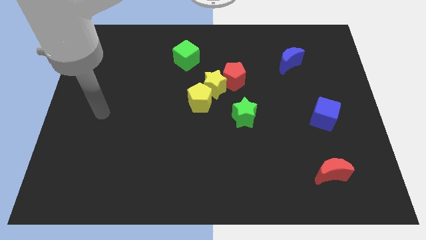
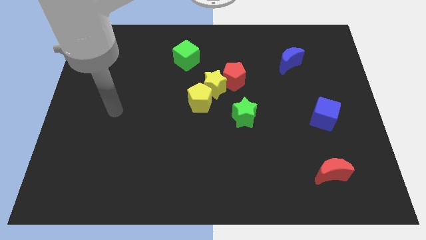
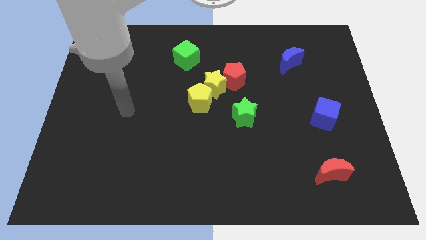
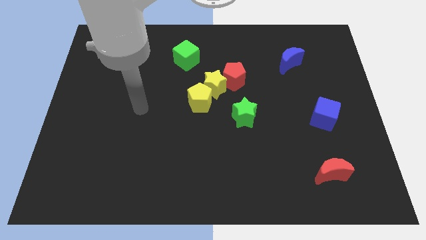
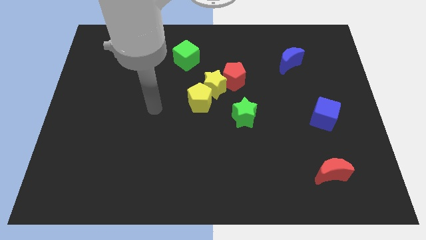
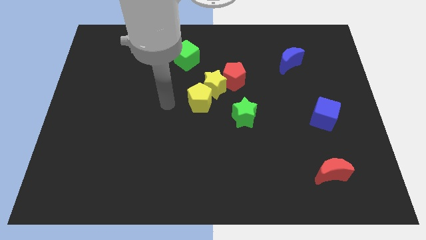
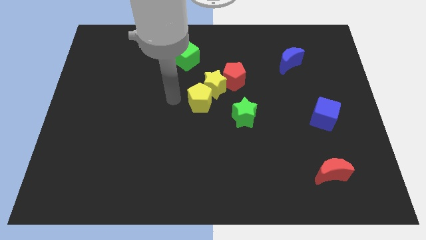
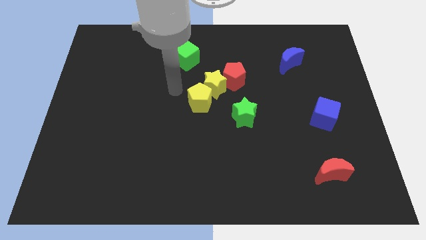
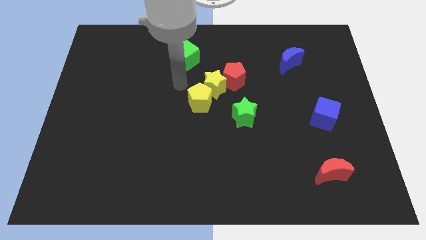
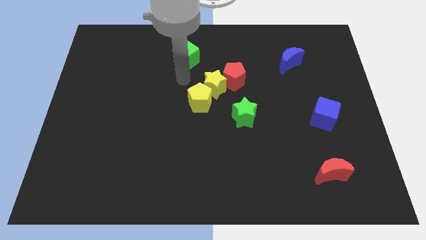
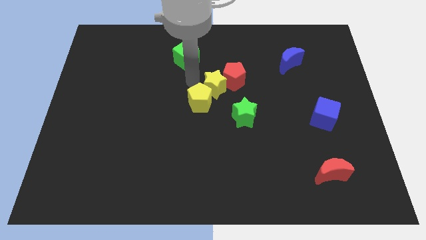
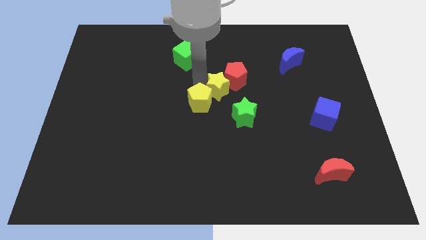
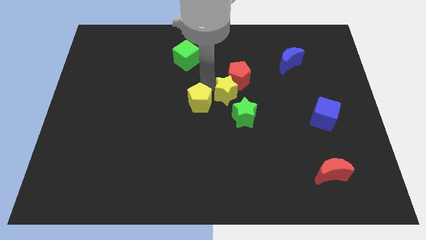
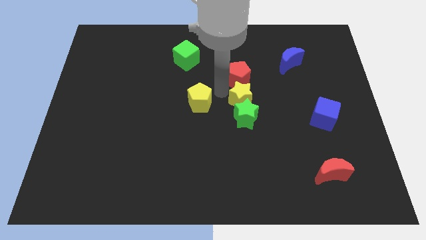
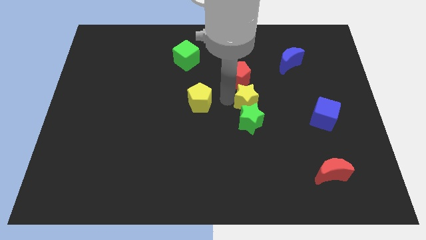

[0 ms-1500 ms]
pull the yellow pentagon apart from the yellow star

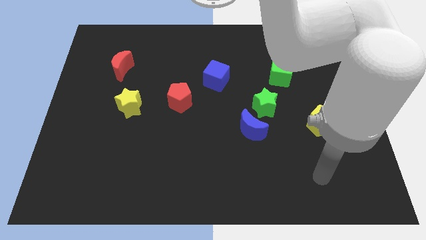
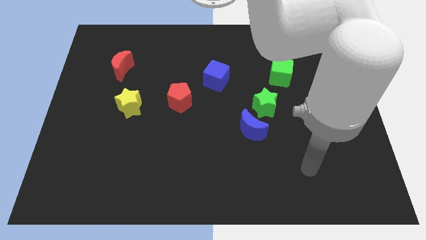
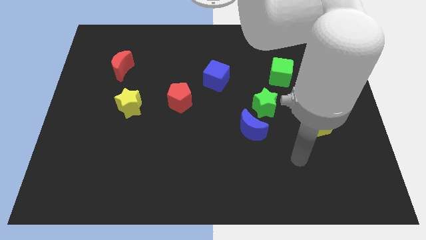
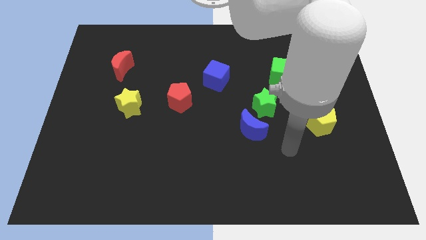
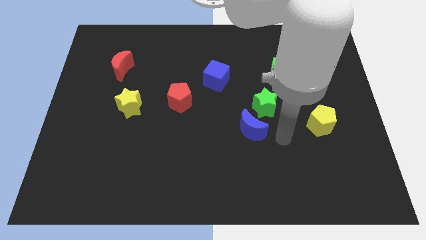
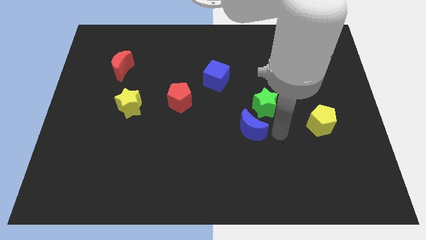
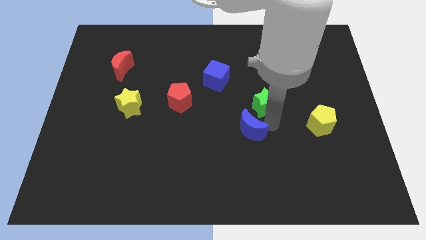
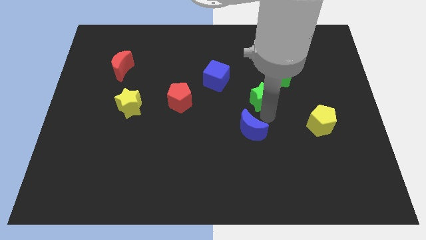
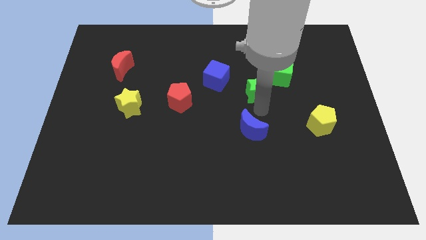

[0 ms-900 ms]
move the blue moon away from the green star

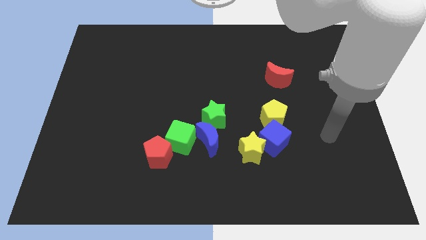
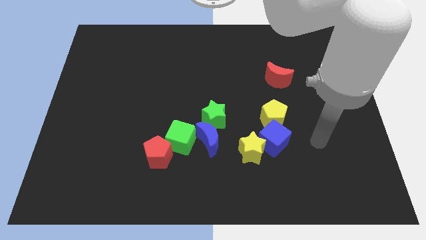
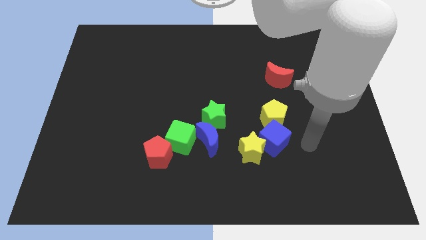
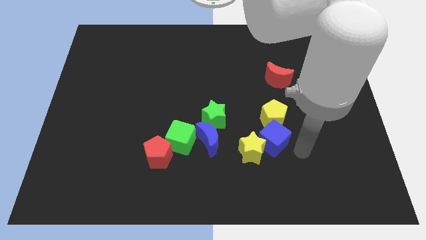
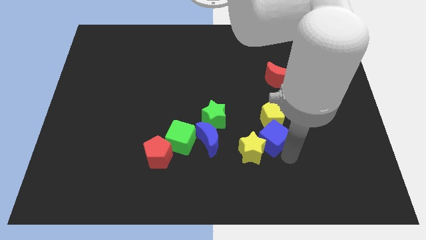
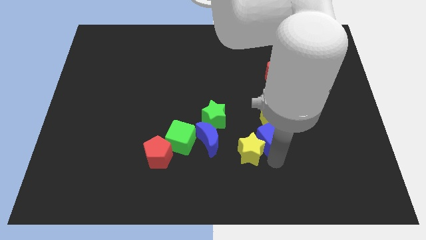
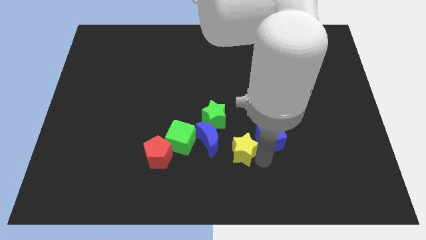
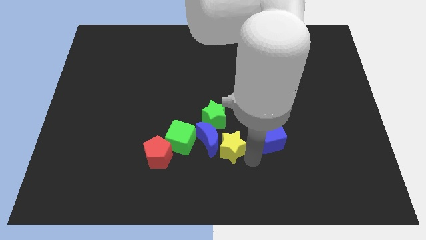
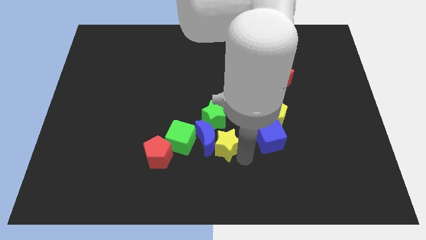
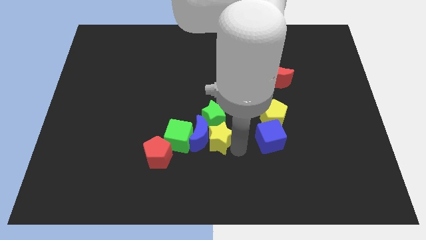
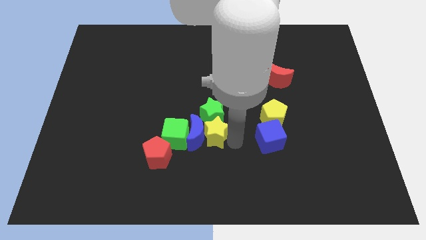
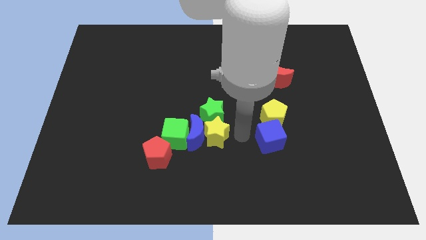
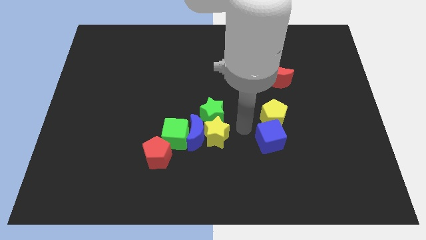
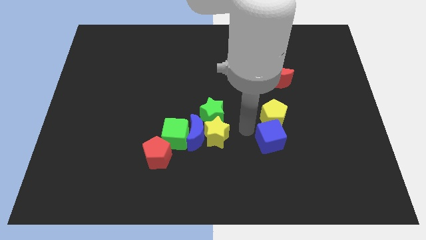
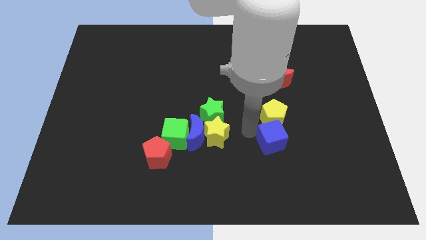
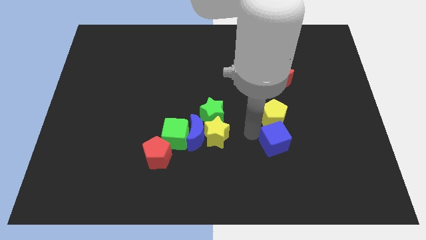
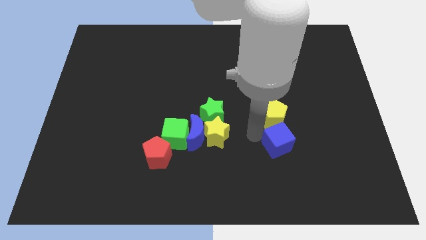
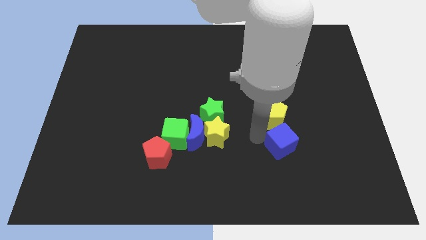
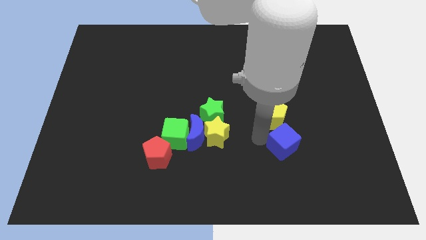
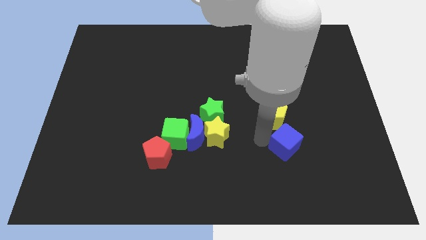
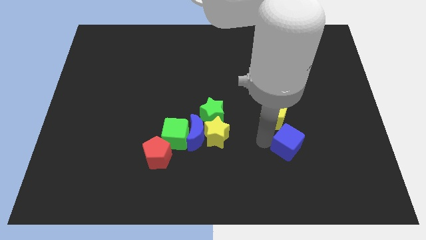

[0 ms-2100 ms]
move the blue cube away from the yellow star and yellow pentagon

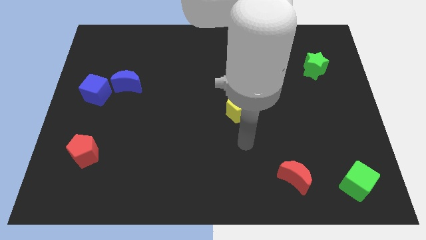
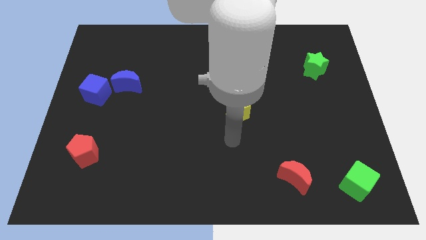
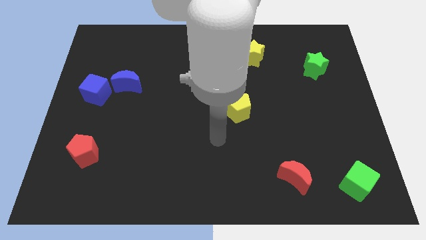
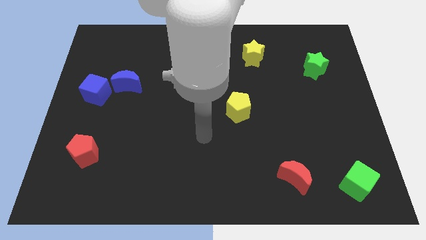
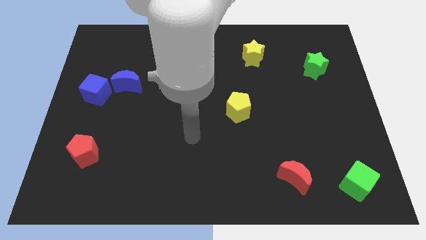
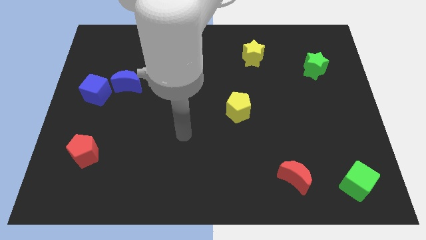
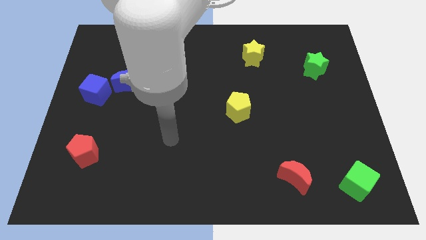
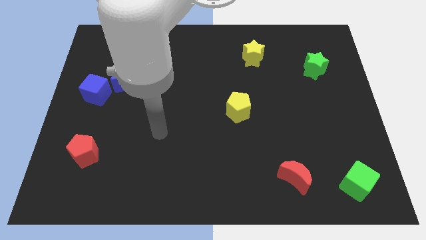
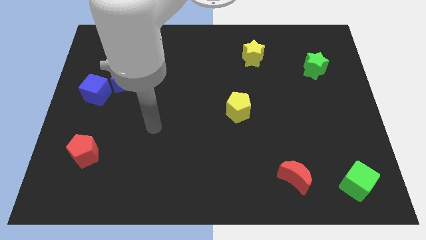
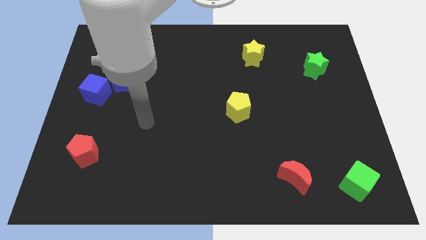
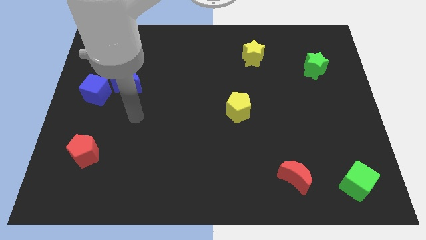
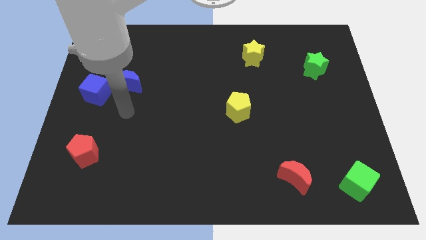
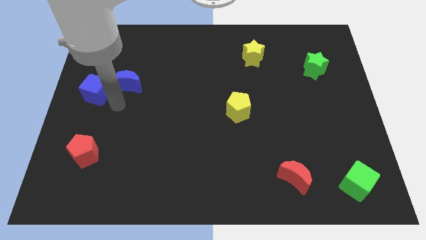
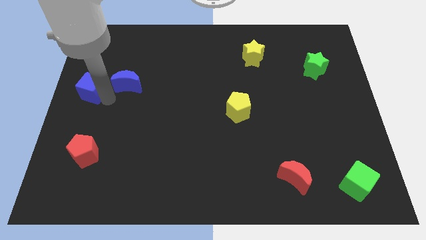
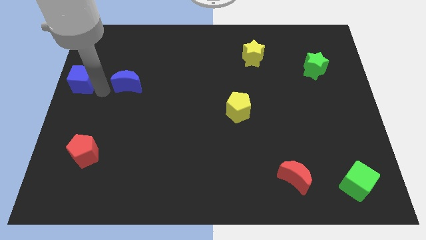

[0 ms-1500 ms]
pull the blue moon apart from the blue cube

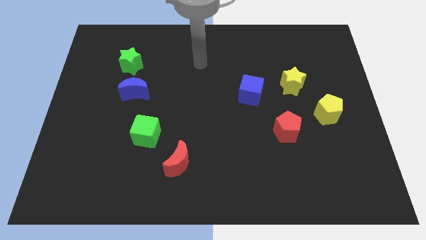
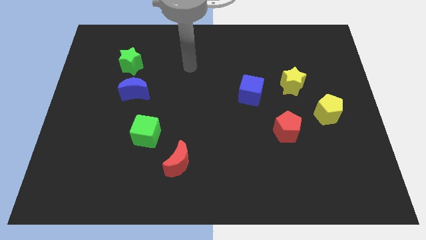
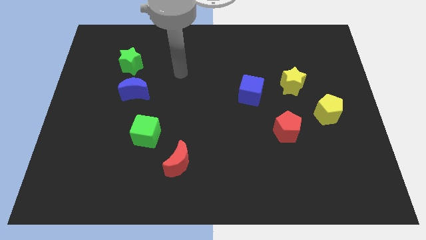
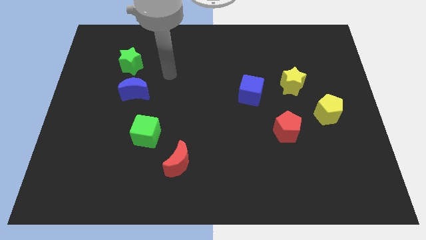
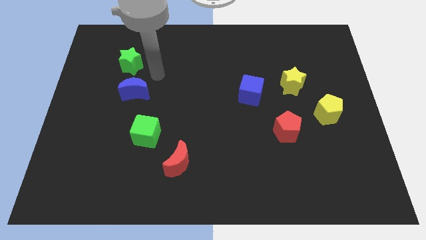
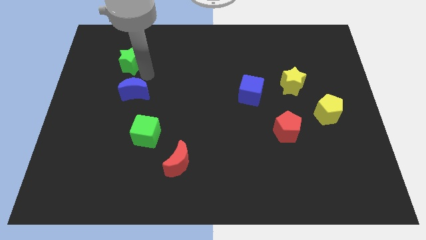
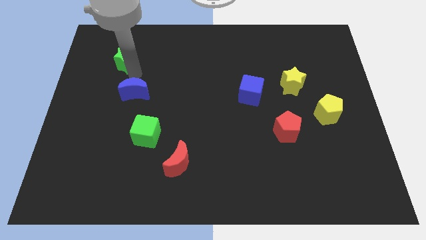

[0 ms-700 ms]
separate the blue moon from the green star

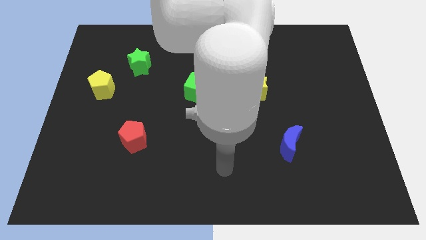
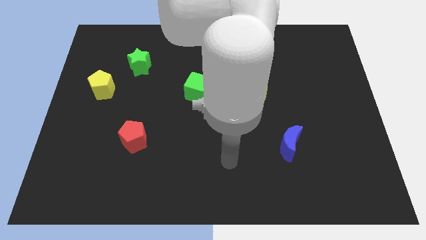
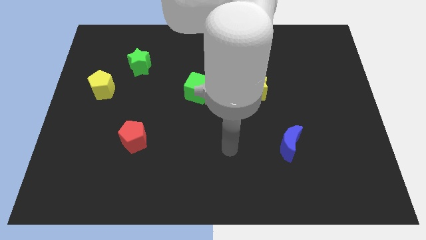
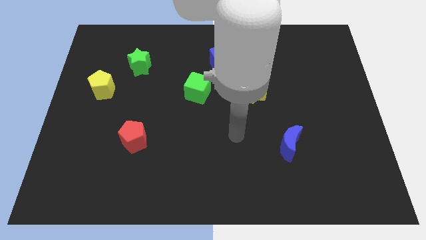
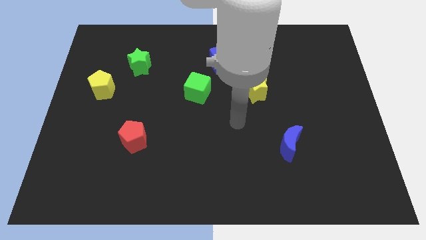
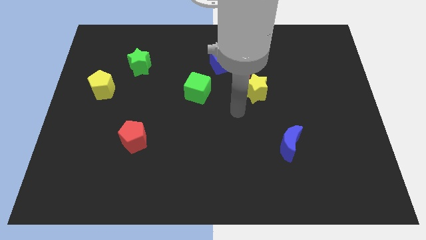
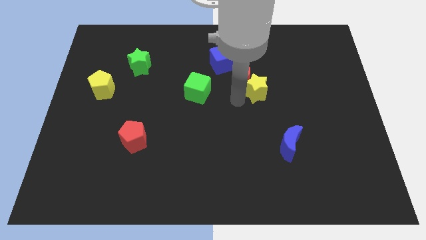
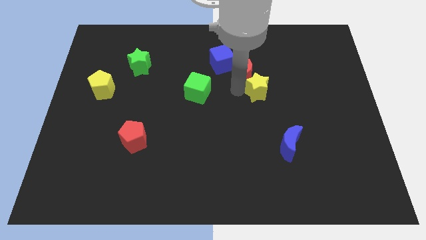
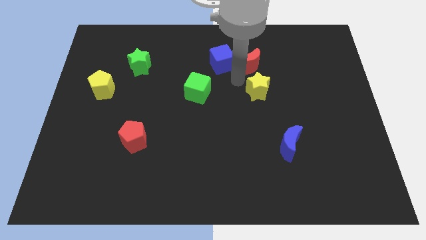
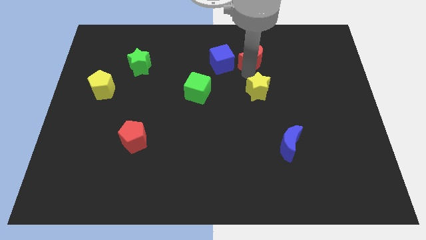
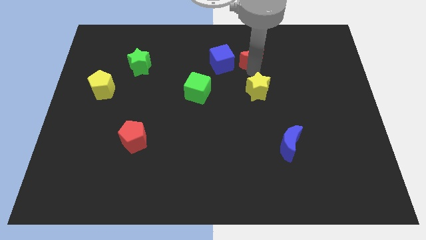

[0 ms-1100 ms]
separate the yellow star from the red moon

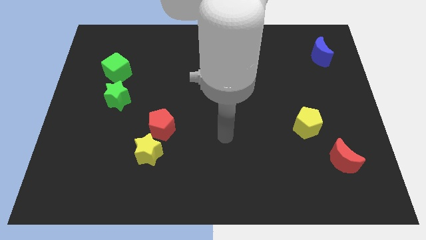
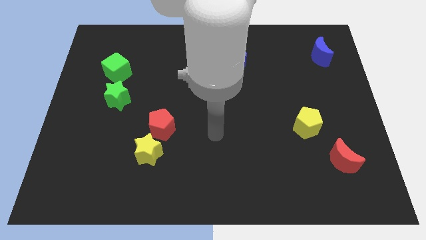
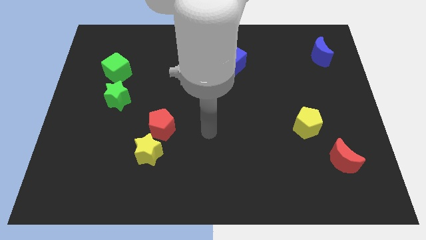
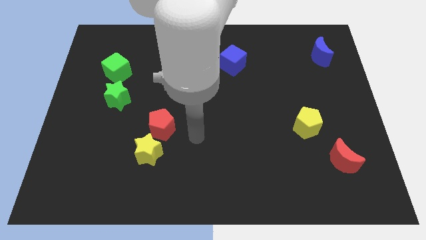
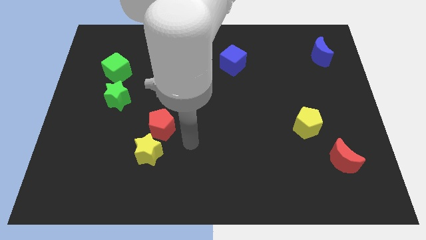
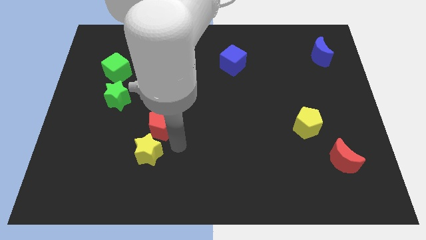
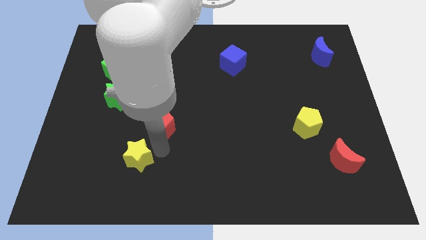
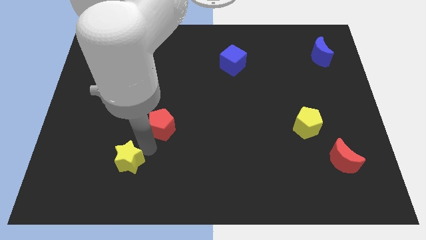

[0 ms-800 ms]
move the red pentagon away from the yellow star

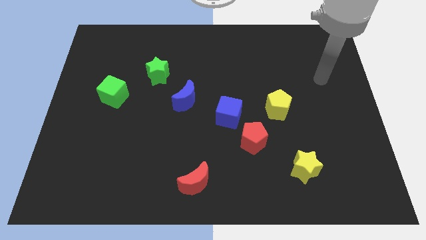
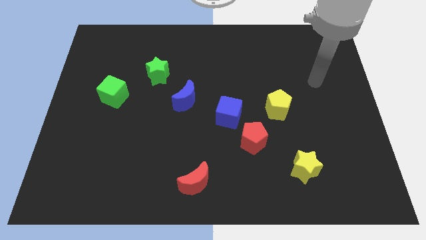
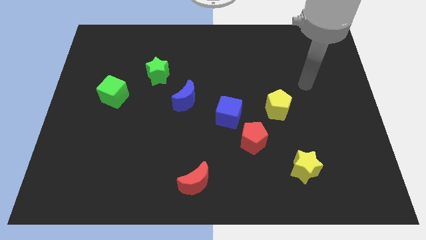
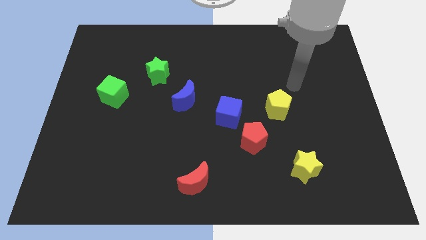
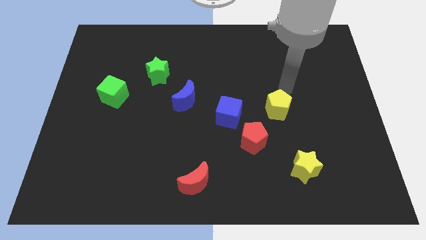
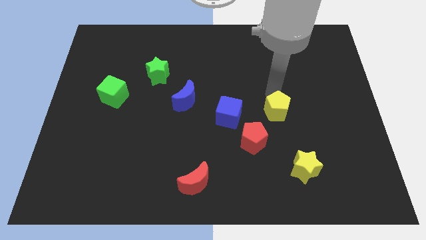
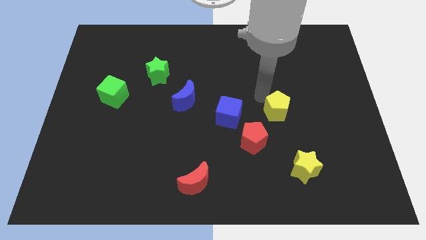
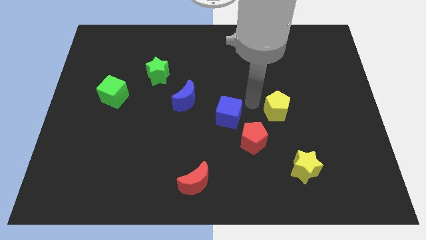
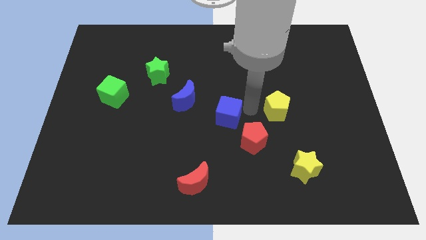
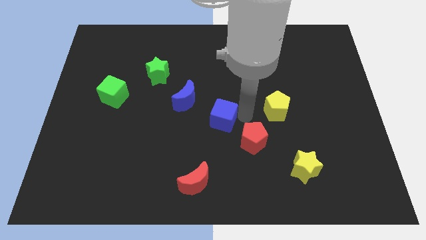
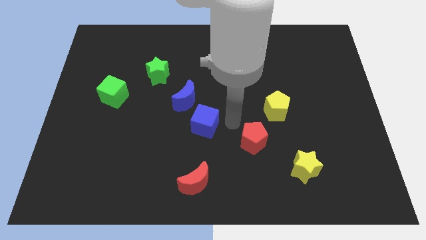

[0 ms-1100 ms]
move the red pentagon away from the blue cube
